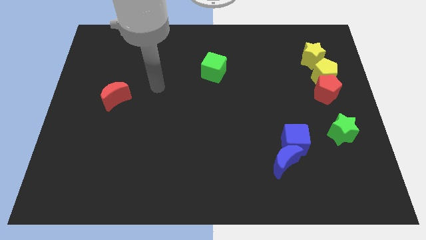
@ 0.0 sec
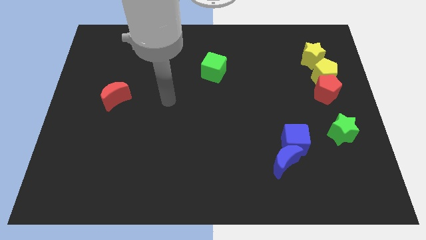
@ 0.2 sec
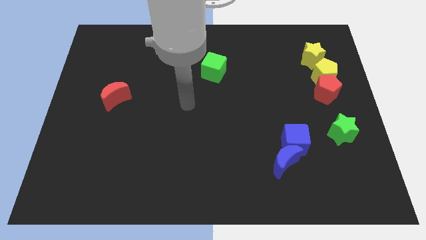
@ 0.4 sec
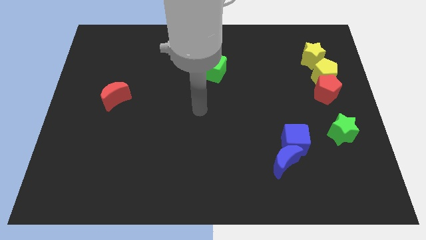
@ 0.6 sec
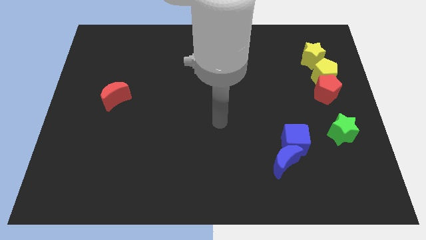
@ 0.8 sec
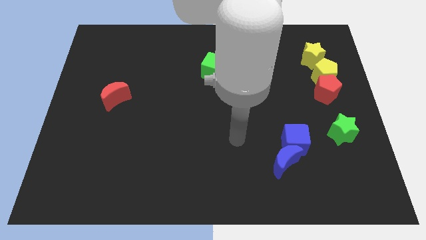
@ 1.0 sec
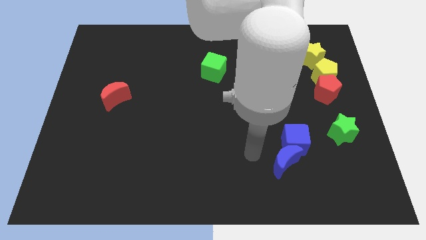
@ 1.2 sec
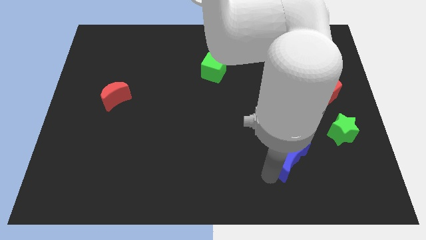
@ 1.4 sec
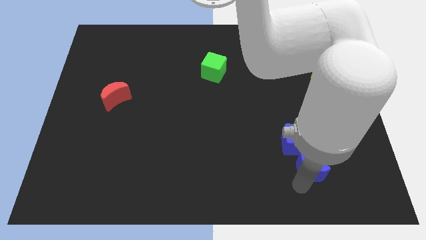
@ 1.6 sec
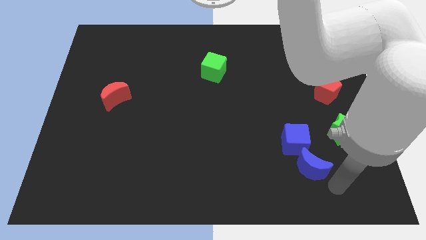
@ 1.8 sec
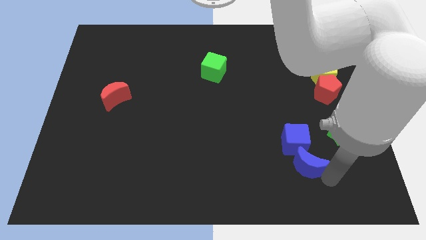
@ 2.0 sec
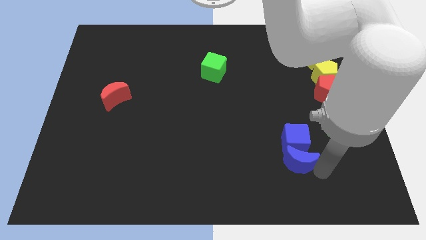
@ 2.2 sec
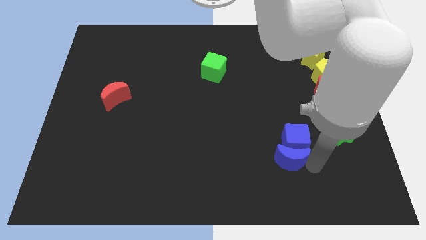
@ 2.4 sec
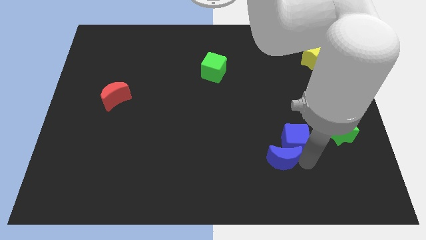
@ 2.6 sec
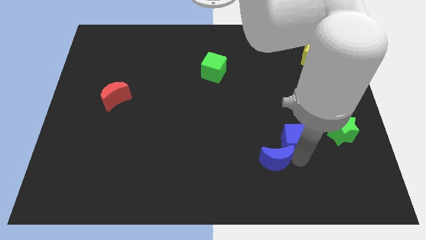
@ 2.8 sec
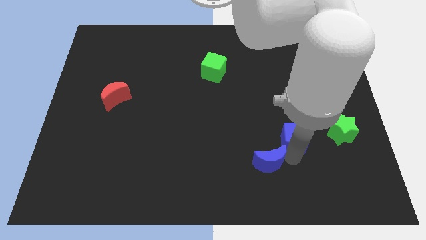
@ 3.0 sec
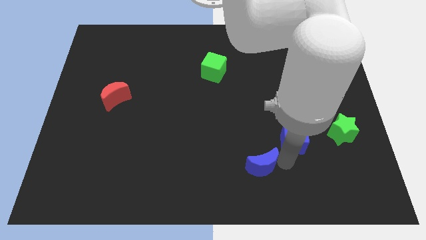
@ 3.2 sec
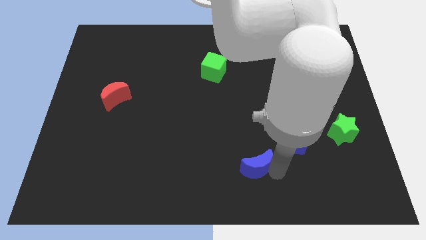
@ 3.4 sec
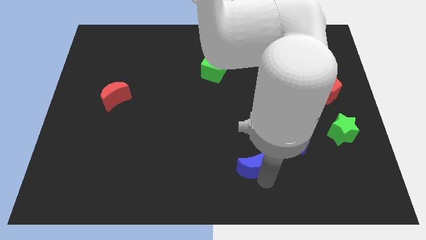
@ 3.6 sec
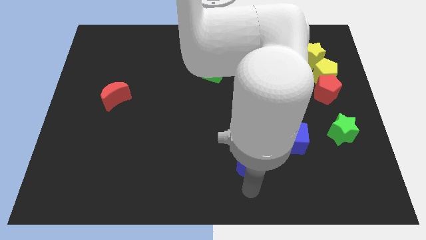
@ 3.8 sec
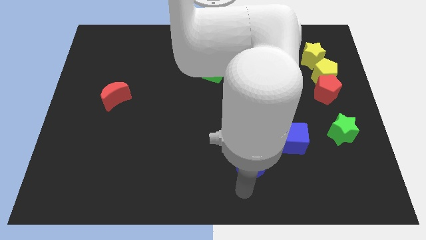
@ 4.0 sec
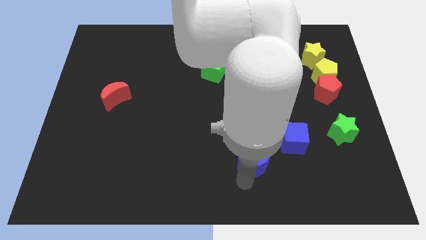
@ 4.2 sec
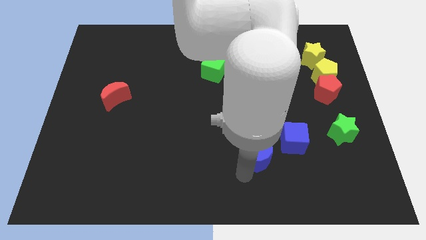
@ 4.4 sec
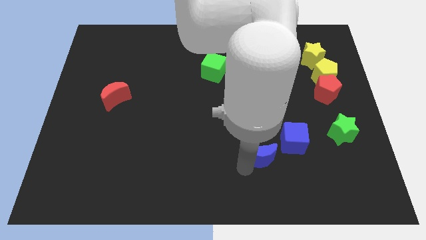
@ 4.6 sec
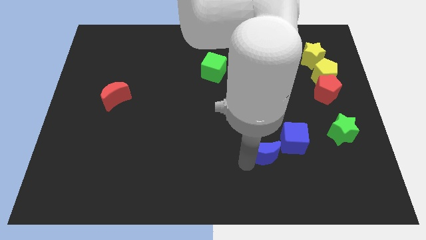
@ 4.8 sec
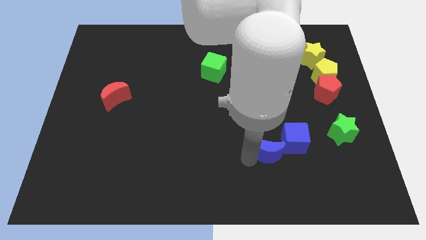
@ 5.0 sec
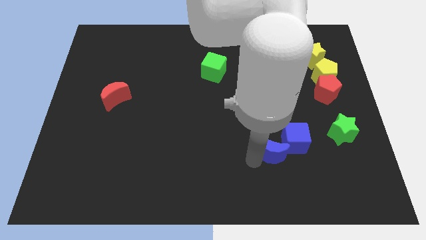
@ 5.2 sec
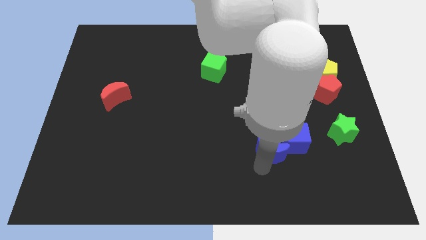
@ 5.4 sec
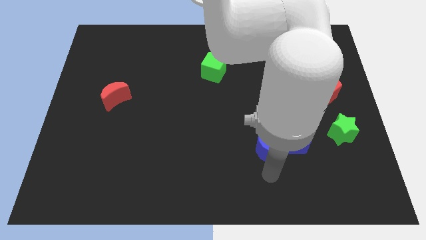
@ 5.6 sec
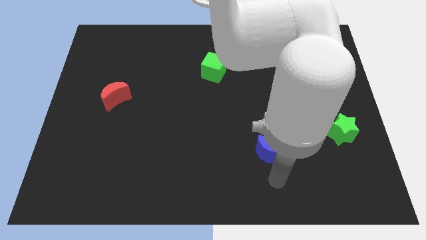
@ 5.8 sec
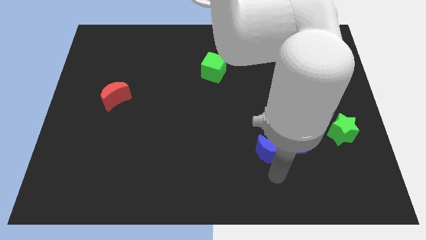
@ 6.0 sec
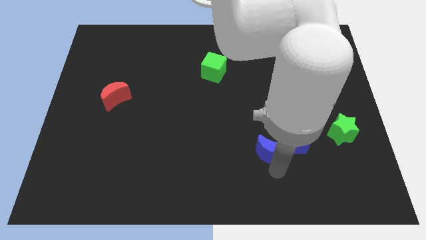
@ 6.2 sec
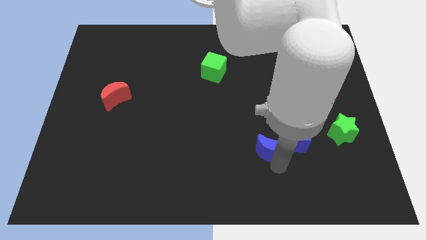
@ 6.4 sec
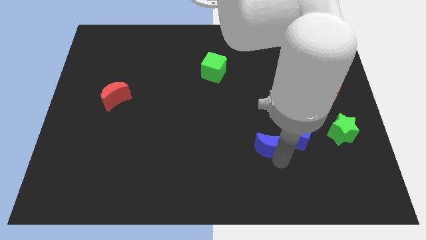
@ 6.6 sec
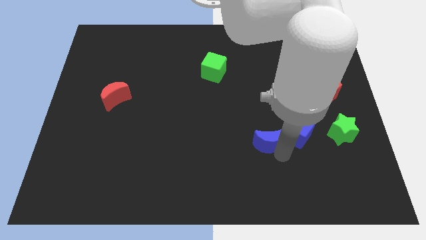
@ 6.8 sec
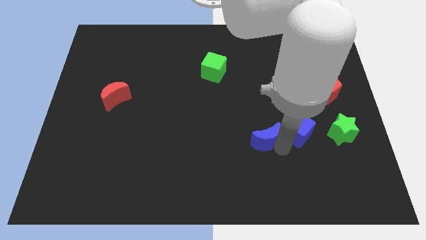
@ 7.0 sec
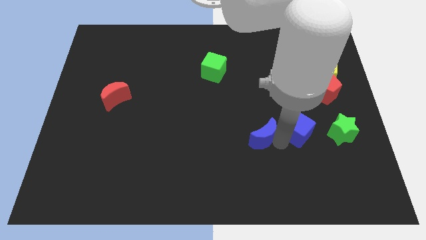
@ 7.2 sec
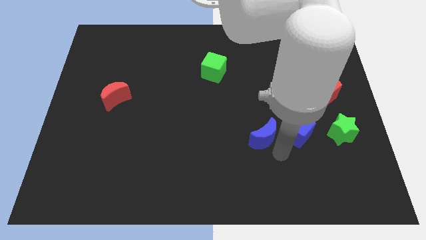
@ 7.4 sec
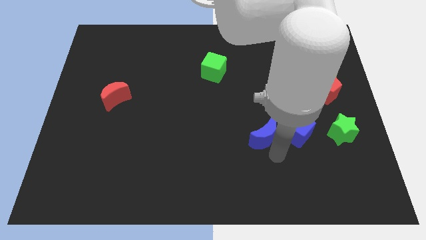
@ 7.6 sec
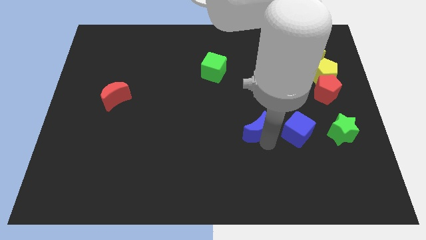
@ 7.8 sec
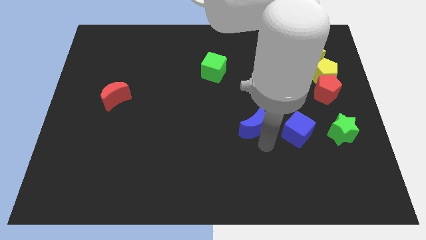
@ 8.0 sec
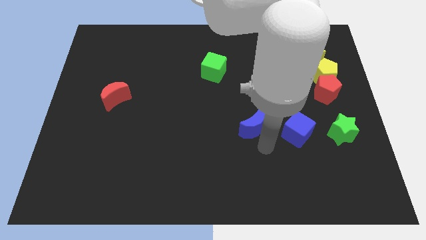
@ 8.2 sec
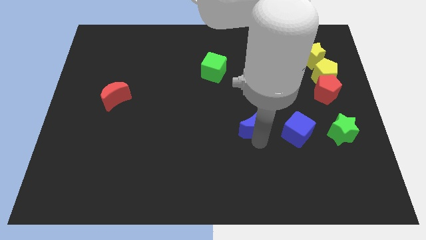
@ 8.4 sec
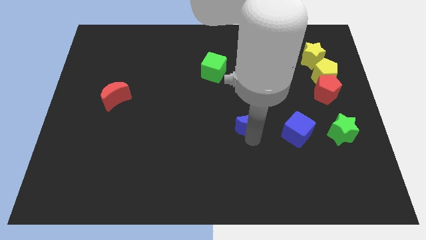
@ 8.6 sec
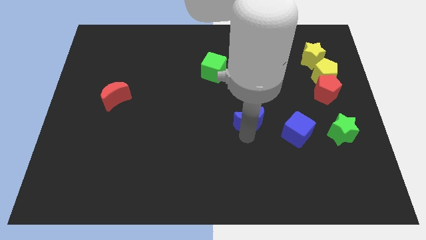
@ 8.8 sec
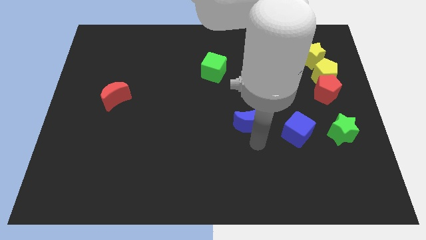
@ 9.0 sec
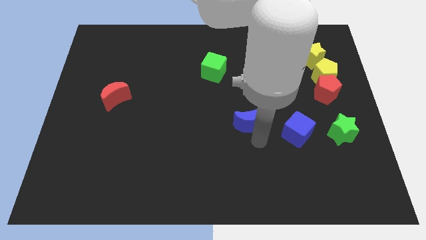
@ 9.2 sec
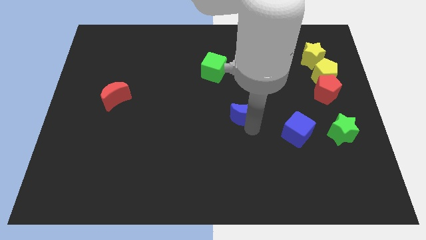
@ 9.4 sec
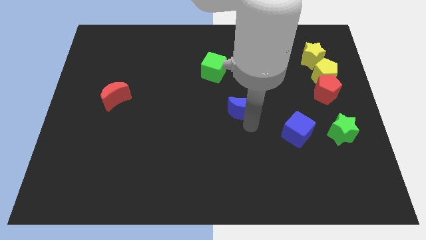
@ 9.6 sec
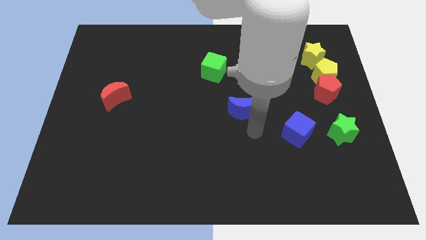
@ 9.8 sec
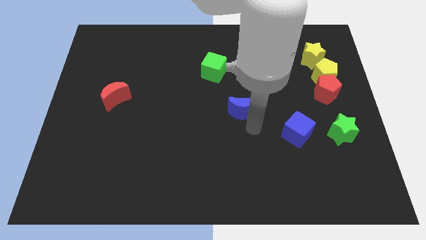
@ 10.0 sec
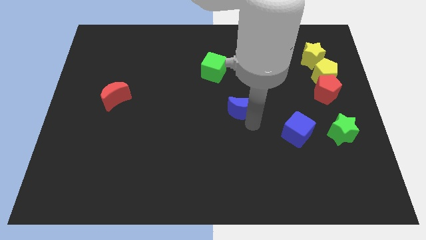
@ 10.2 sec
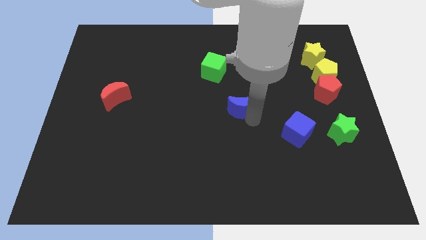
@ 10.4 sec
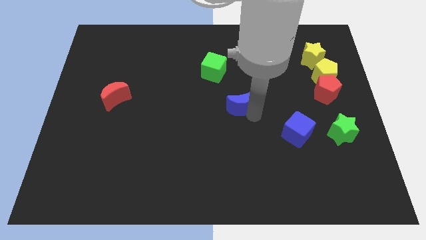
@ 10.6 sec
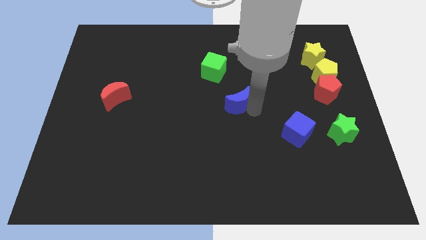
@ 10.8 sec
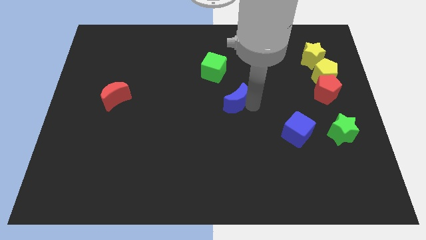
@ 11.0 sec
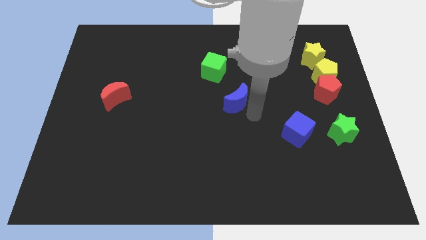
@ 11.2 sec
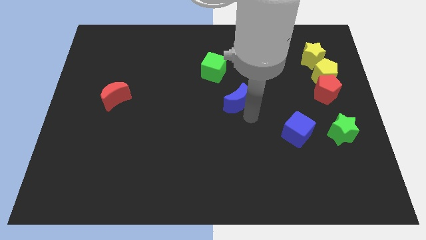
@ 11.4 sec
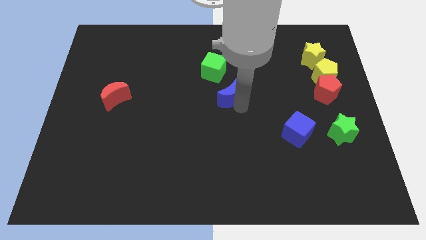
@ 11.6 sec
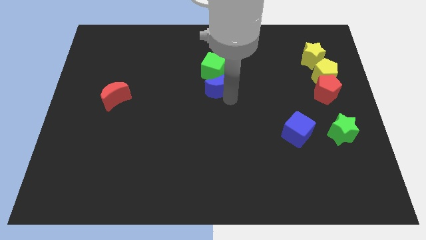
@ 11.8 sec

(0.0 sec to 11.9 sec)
push the blue moon towards the green cube

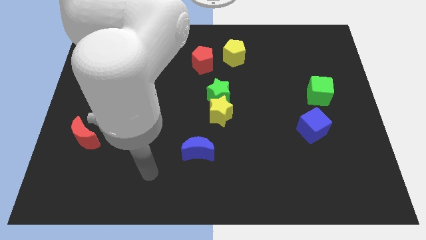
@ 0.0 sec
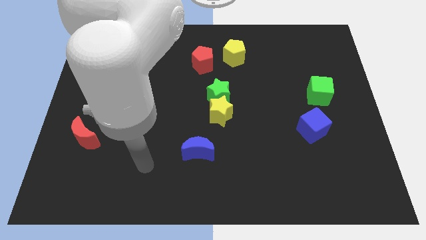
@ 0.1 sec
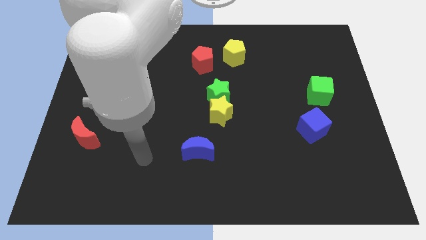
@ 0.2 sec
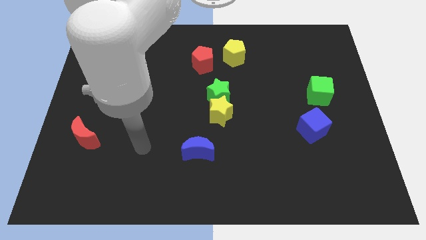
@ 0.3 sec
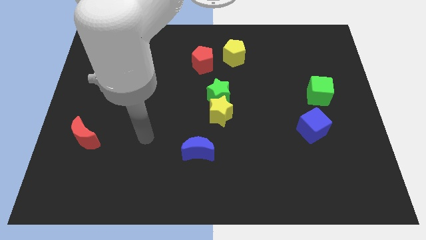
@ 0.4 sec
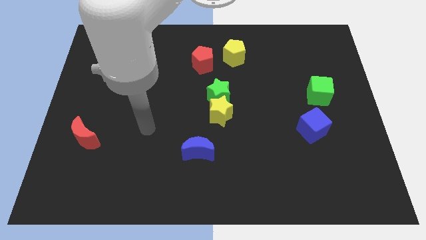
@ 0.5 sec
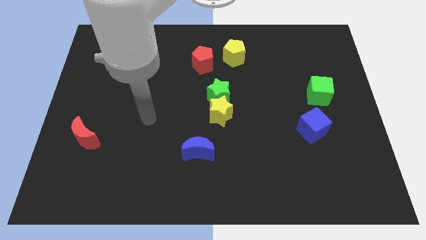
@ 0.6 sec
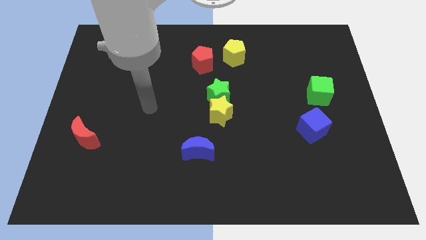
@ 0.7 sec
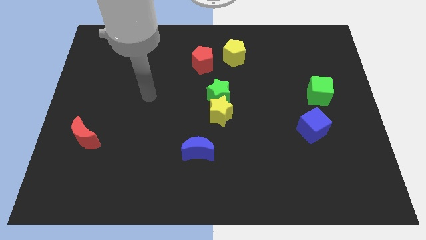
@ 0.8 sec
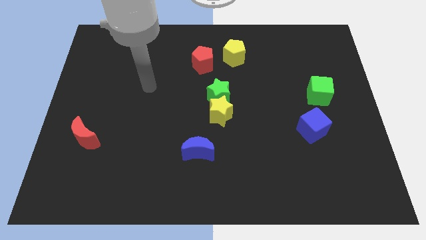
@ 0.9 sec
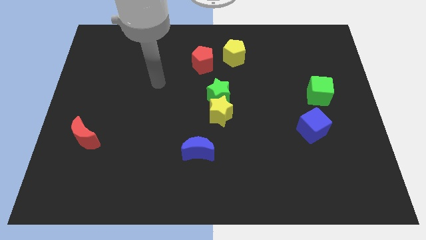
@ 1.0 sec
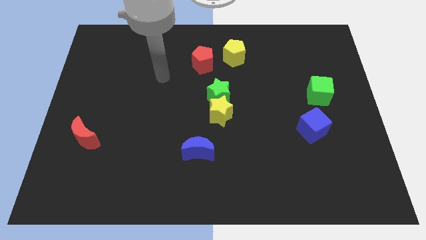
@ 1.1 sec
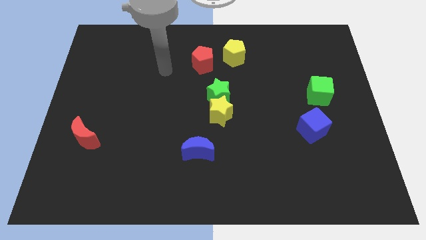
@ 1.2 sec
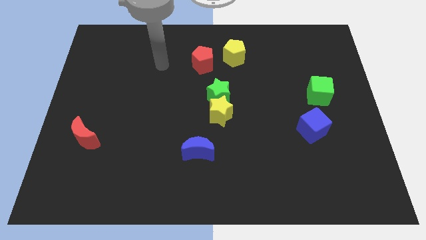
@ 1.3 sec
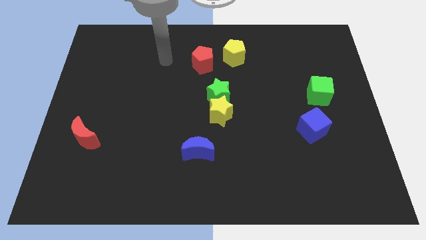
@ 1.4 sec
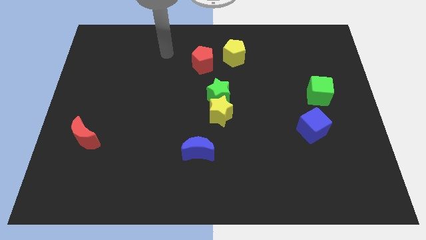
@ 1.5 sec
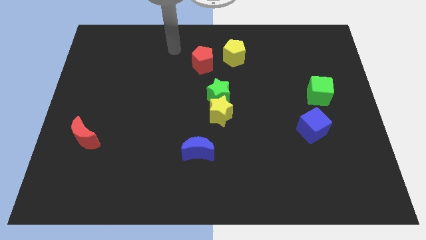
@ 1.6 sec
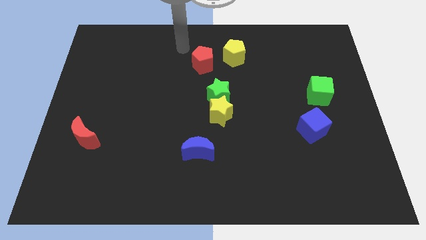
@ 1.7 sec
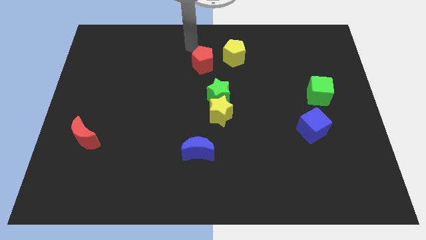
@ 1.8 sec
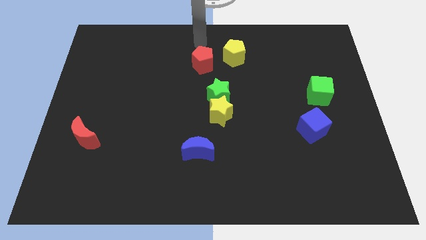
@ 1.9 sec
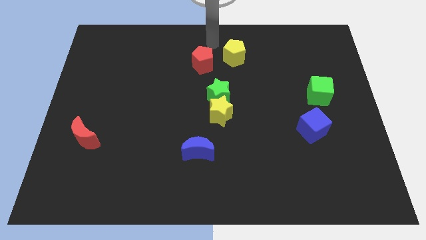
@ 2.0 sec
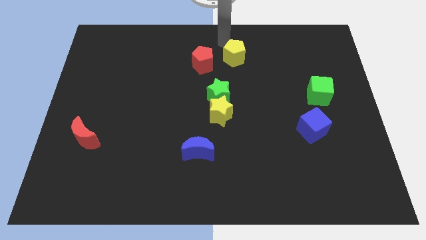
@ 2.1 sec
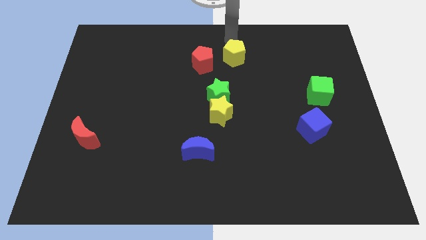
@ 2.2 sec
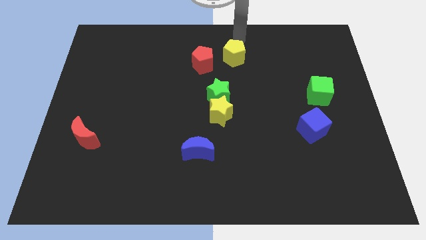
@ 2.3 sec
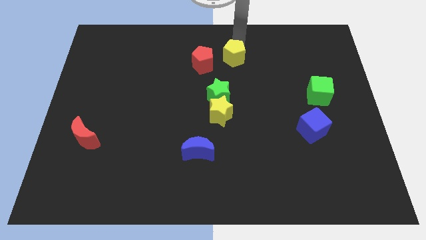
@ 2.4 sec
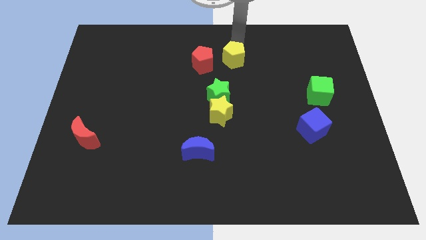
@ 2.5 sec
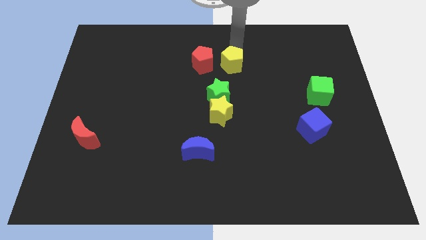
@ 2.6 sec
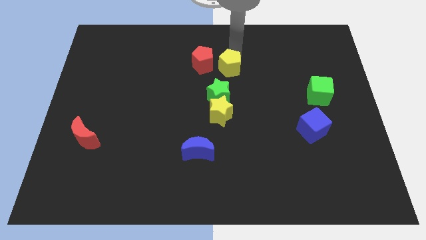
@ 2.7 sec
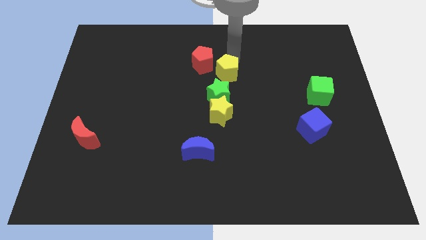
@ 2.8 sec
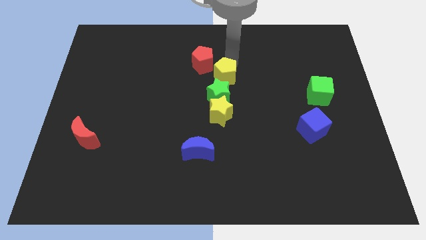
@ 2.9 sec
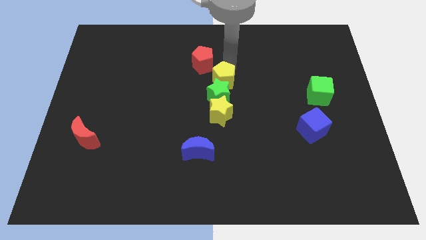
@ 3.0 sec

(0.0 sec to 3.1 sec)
move the yellow pentagon close to the green star
